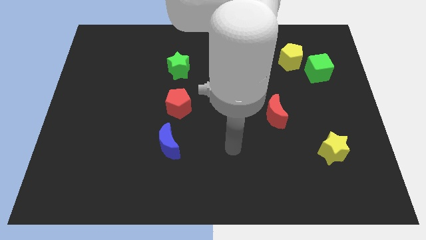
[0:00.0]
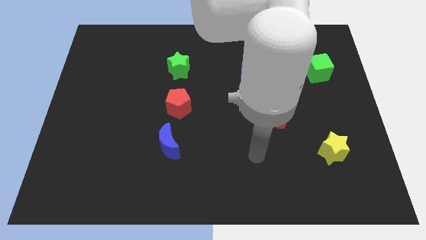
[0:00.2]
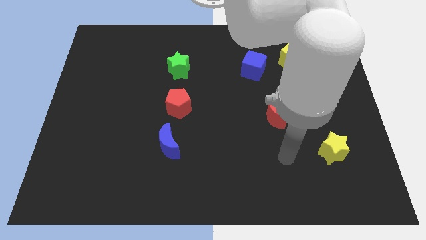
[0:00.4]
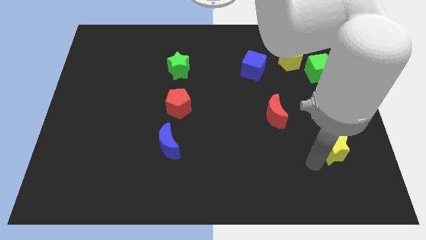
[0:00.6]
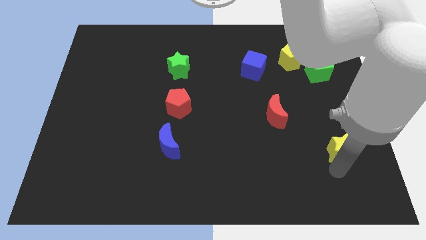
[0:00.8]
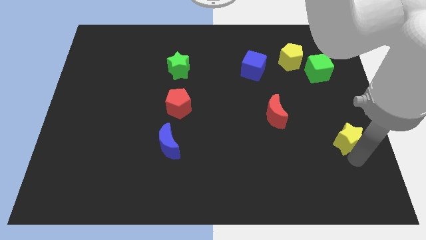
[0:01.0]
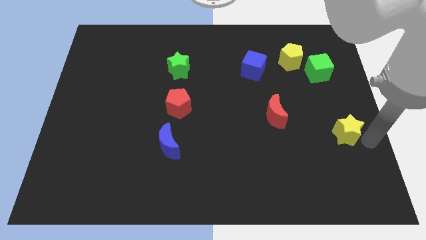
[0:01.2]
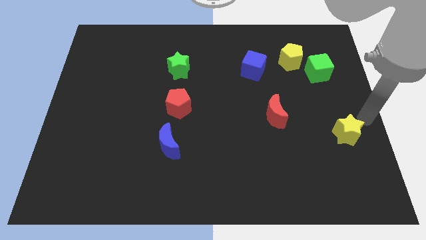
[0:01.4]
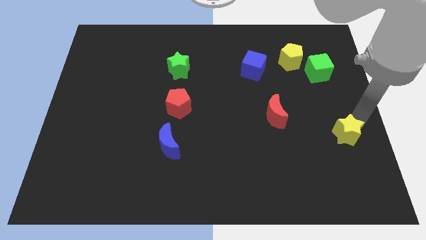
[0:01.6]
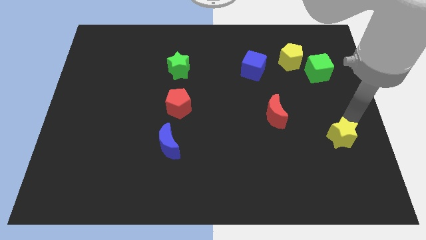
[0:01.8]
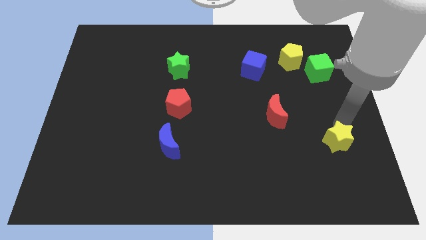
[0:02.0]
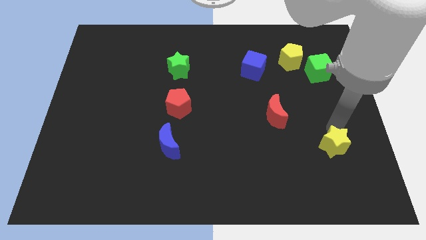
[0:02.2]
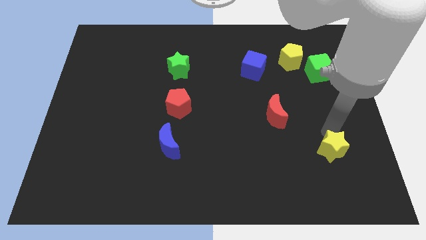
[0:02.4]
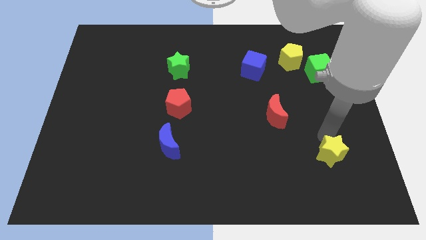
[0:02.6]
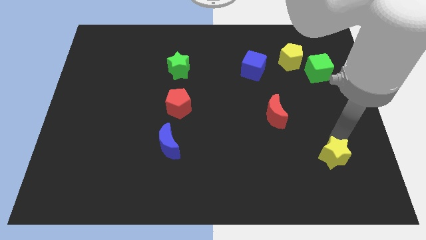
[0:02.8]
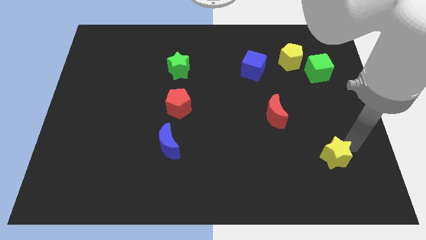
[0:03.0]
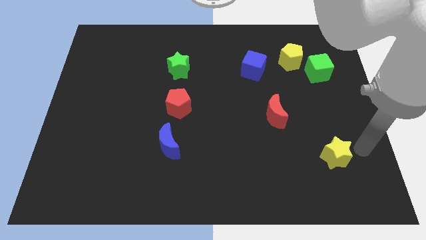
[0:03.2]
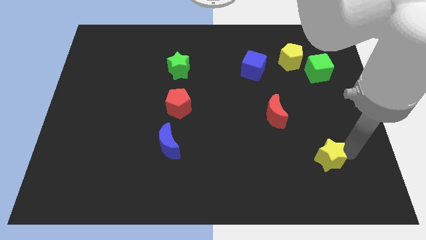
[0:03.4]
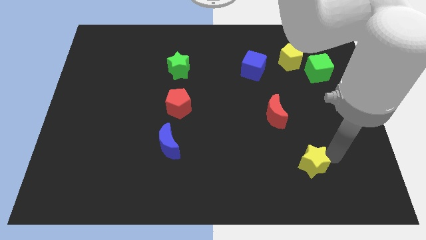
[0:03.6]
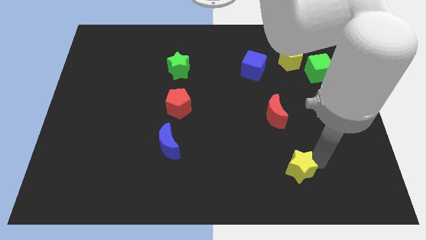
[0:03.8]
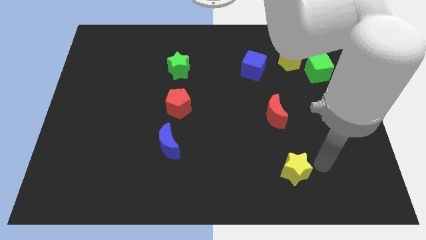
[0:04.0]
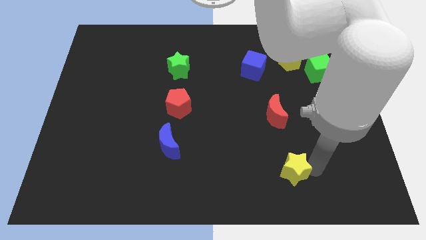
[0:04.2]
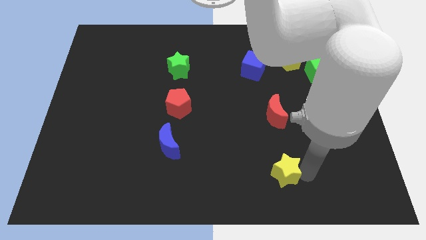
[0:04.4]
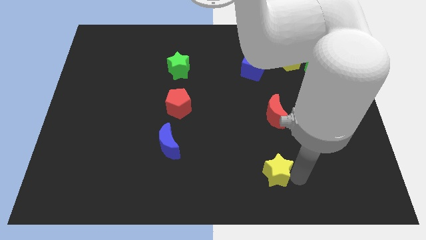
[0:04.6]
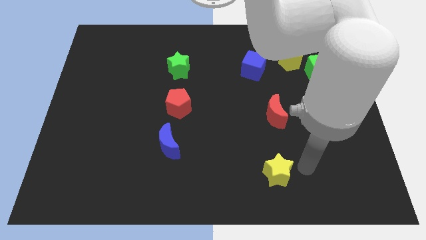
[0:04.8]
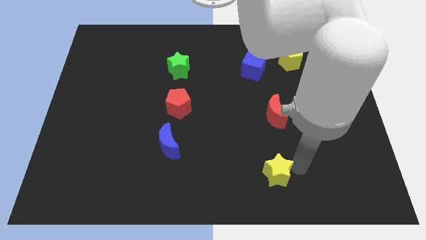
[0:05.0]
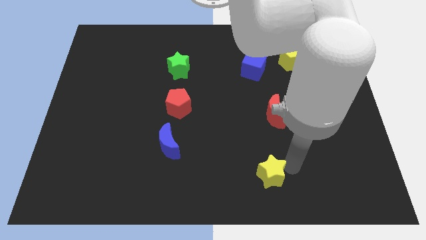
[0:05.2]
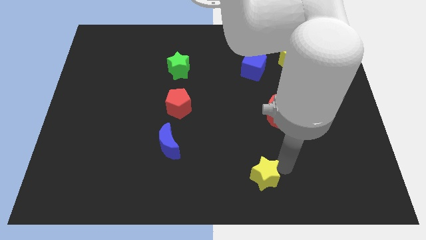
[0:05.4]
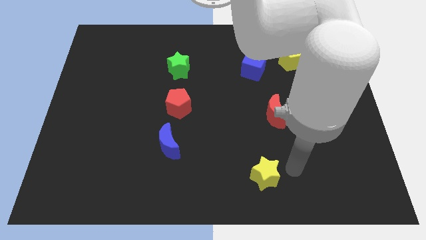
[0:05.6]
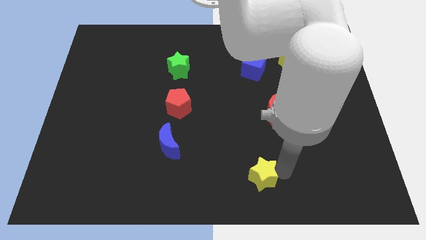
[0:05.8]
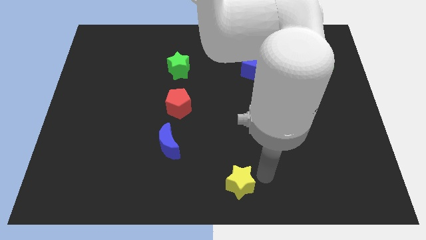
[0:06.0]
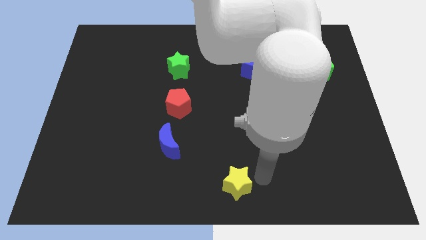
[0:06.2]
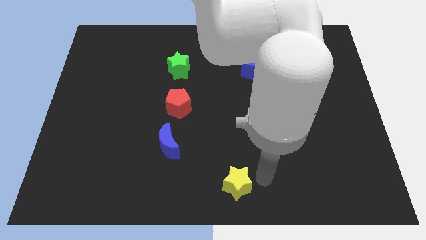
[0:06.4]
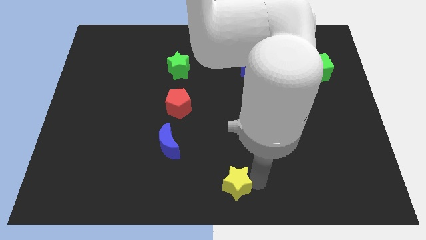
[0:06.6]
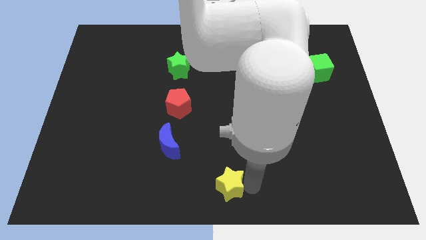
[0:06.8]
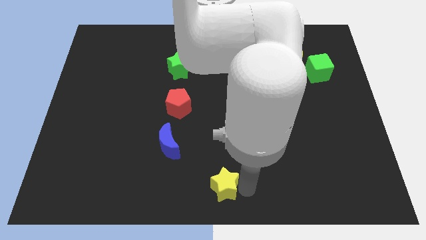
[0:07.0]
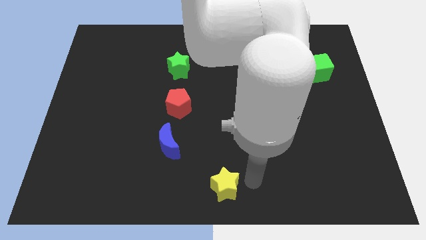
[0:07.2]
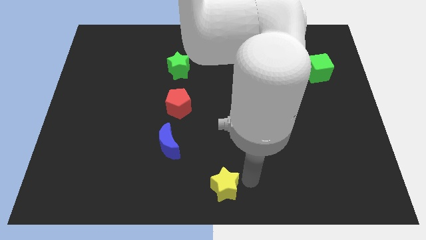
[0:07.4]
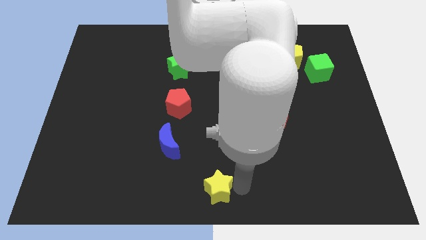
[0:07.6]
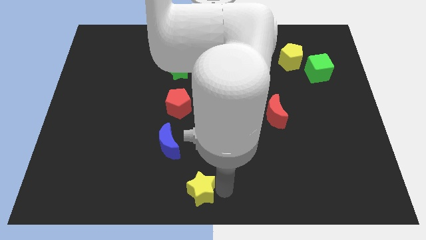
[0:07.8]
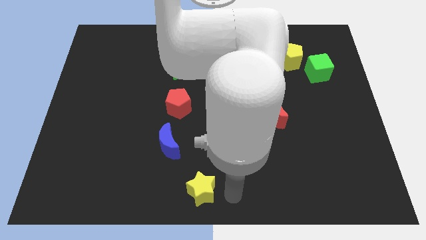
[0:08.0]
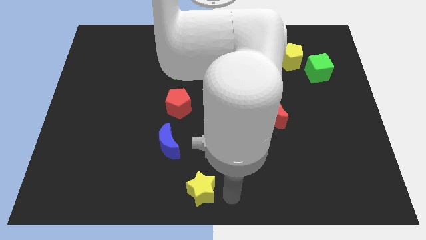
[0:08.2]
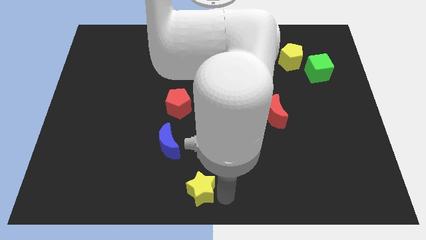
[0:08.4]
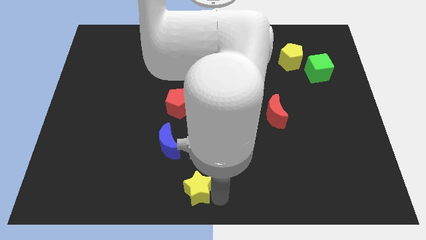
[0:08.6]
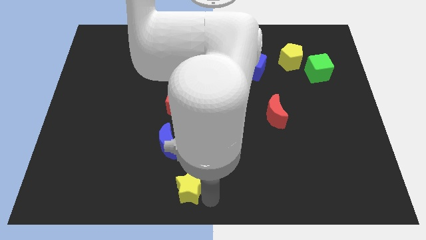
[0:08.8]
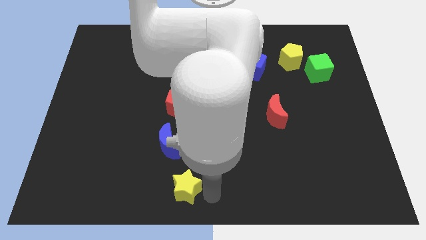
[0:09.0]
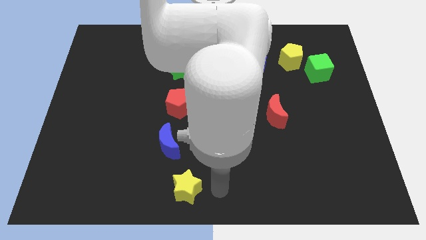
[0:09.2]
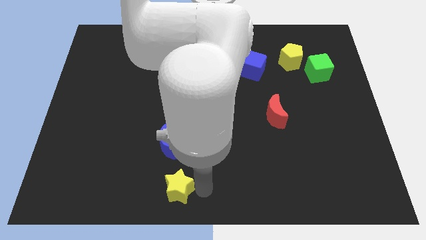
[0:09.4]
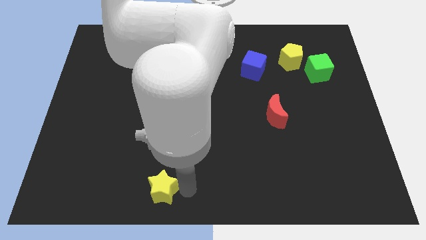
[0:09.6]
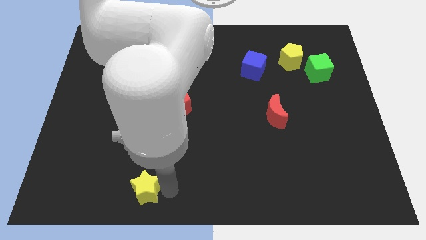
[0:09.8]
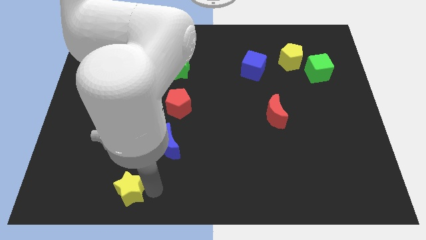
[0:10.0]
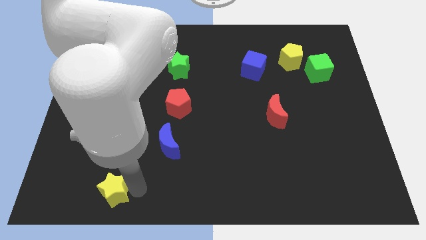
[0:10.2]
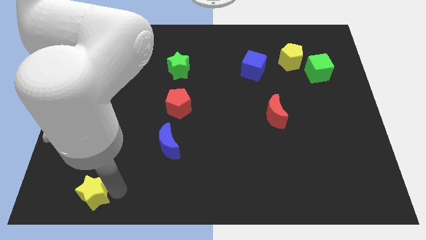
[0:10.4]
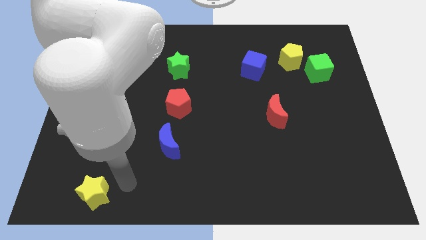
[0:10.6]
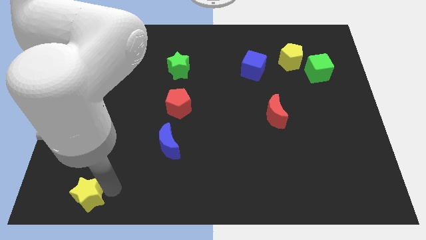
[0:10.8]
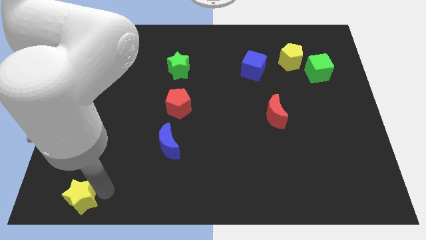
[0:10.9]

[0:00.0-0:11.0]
slide the yellow star to the bottom left

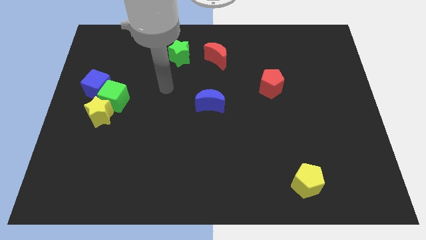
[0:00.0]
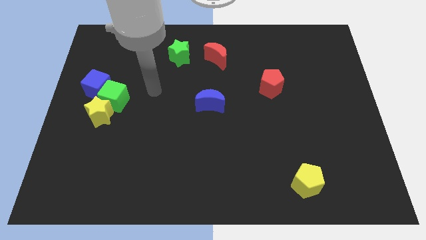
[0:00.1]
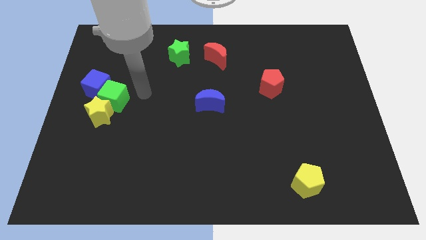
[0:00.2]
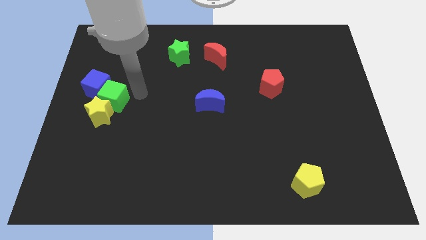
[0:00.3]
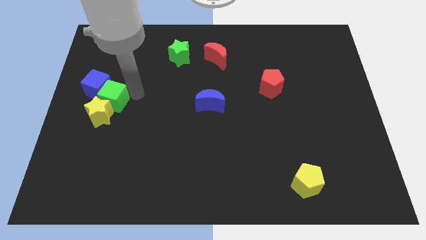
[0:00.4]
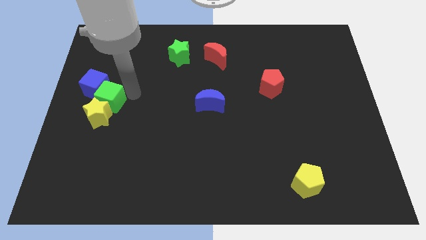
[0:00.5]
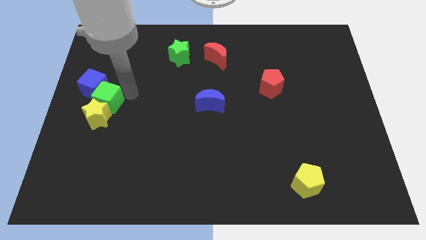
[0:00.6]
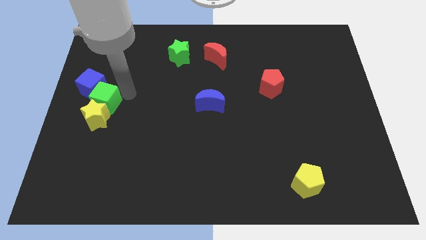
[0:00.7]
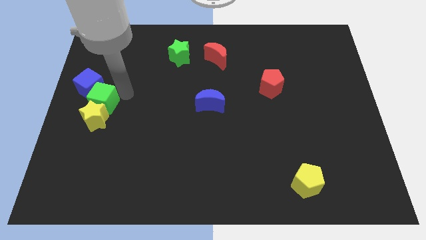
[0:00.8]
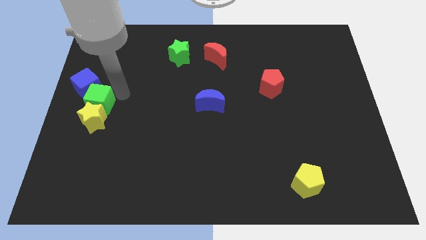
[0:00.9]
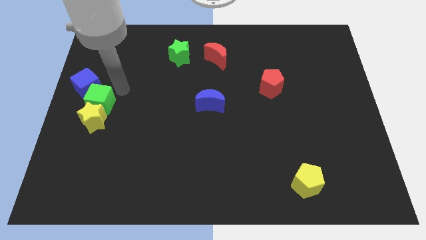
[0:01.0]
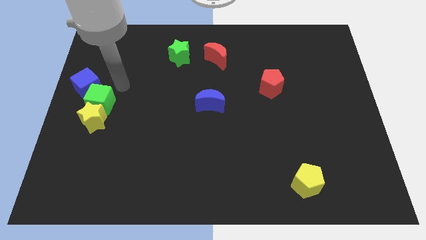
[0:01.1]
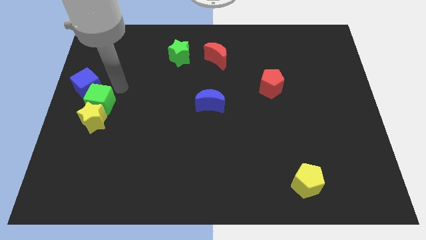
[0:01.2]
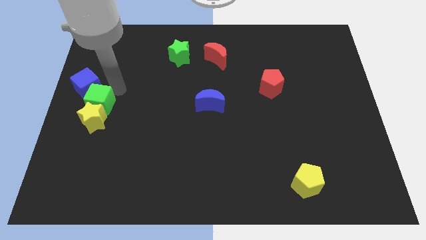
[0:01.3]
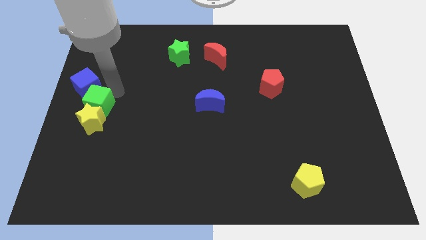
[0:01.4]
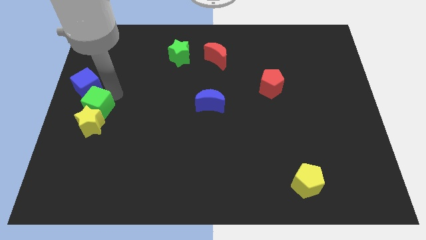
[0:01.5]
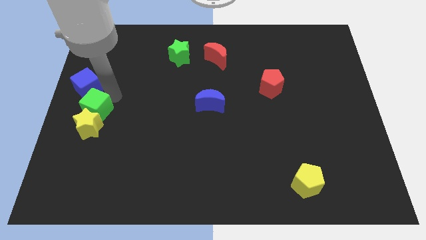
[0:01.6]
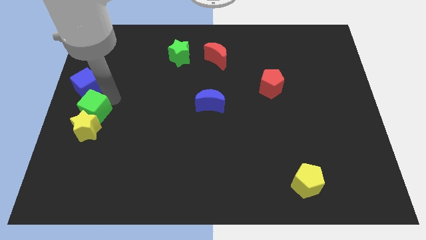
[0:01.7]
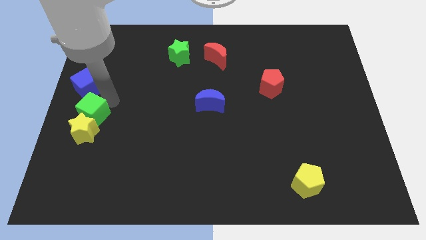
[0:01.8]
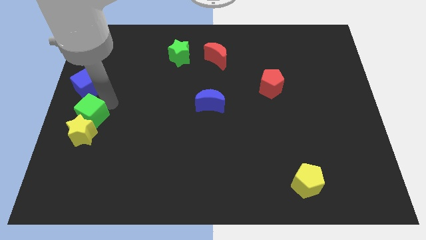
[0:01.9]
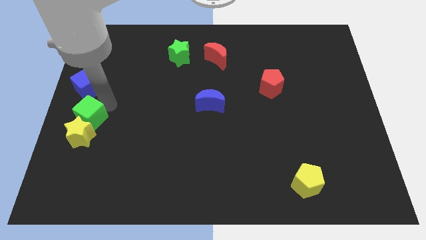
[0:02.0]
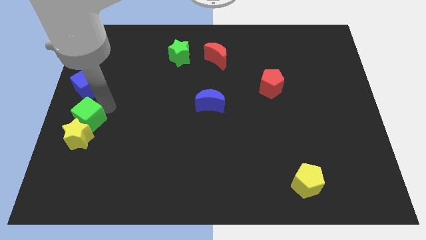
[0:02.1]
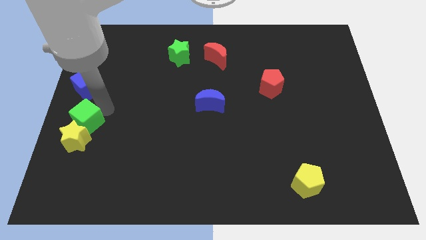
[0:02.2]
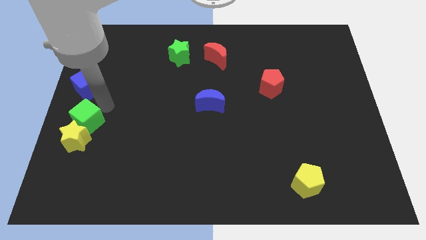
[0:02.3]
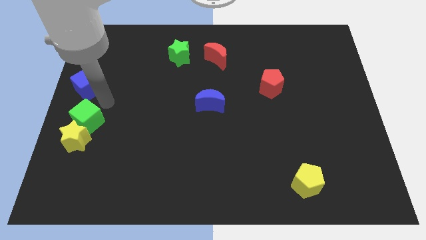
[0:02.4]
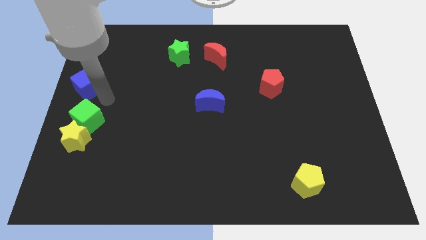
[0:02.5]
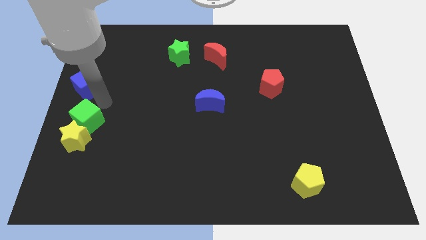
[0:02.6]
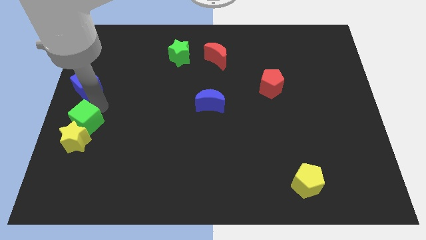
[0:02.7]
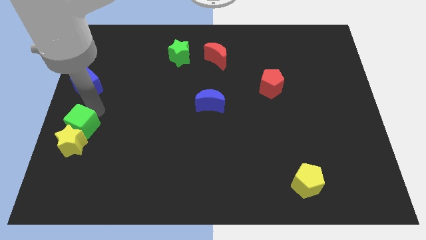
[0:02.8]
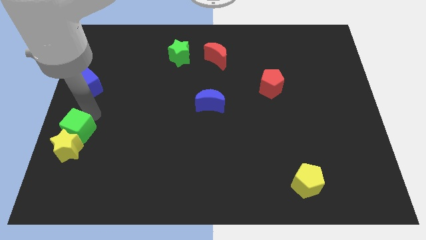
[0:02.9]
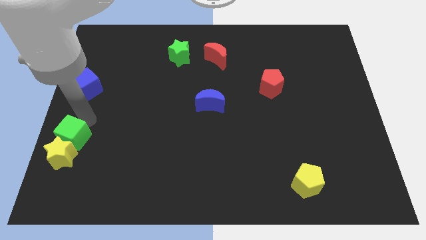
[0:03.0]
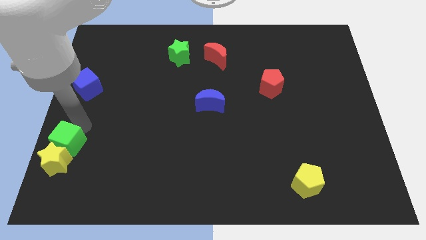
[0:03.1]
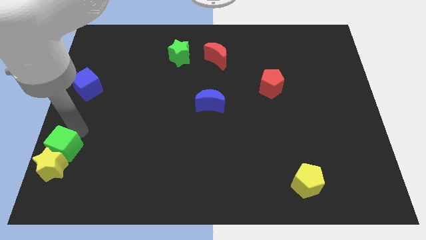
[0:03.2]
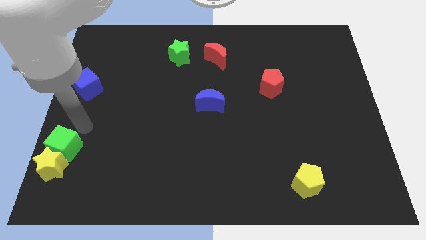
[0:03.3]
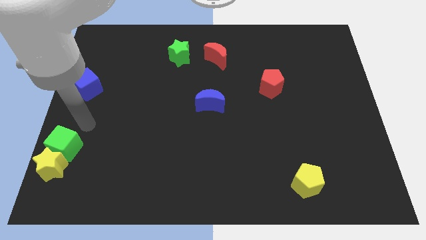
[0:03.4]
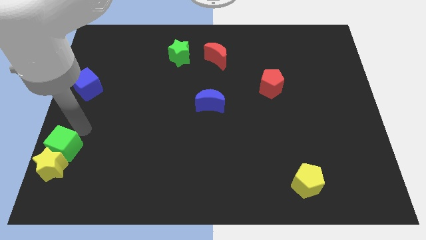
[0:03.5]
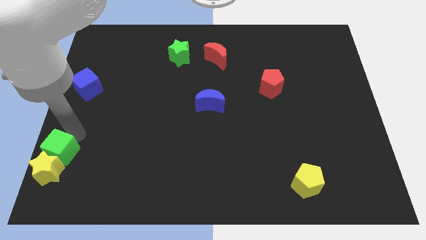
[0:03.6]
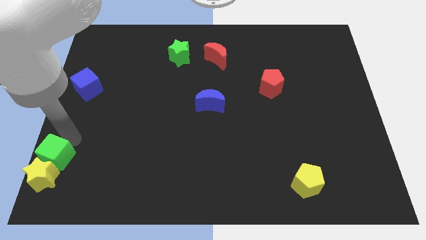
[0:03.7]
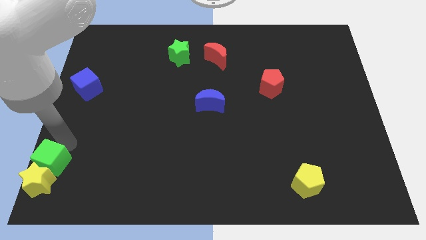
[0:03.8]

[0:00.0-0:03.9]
move the green cube to the bottom left
